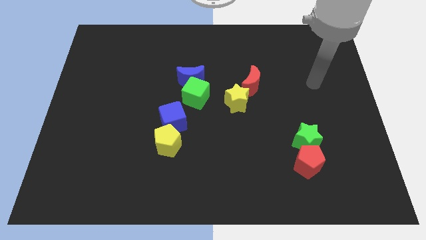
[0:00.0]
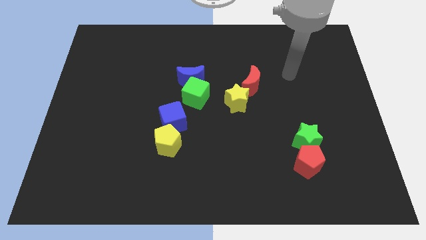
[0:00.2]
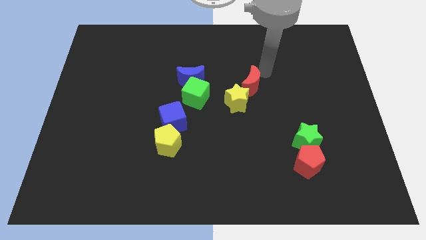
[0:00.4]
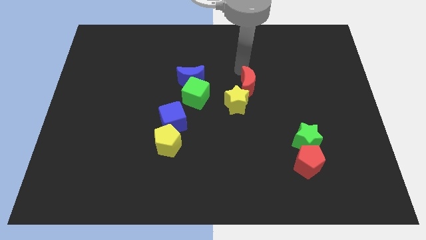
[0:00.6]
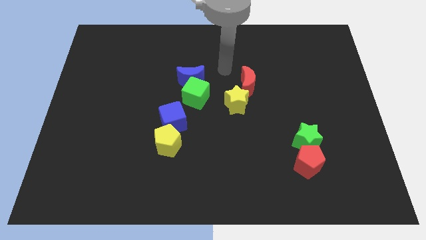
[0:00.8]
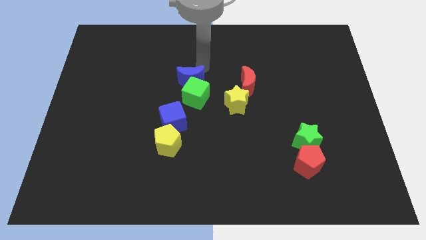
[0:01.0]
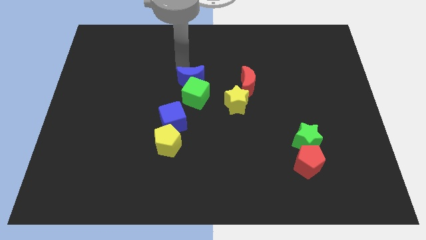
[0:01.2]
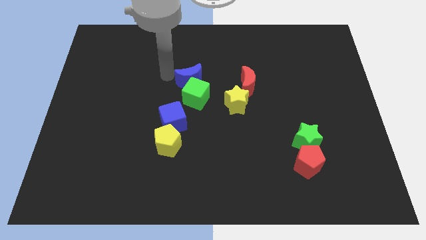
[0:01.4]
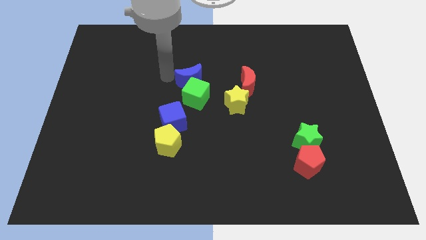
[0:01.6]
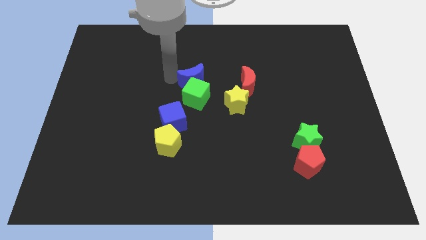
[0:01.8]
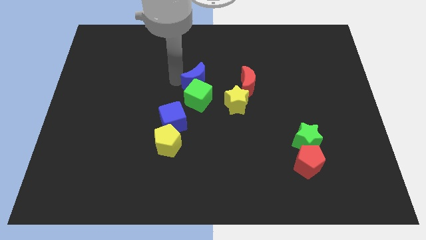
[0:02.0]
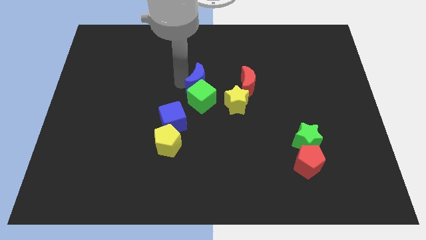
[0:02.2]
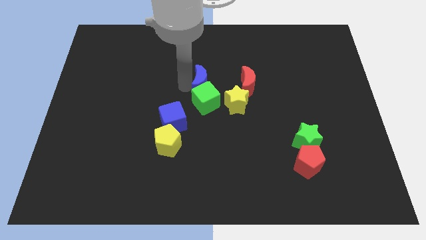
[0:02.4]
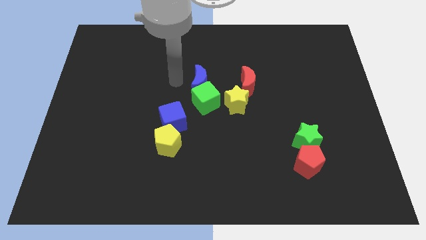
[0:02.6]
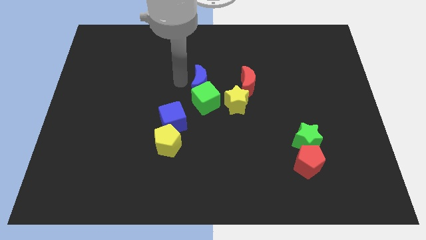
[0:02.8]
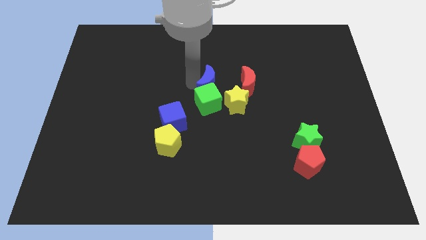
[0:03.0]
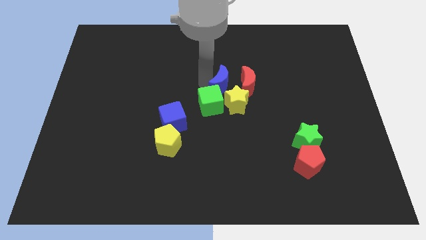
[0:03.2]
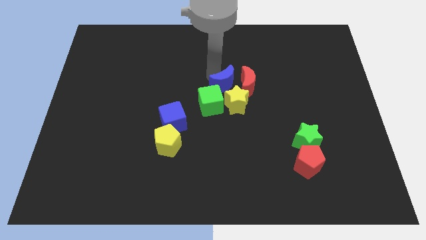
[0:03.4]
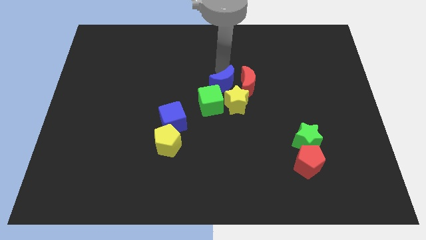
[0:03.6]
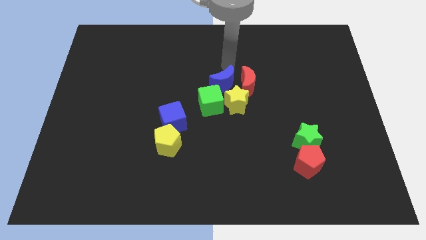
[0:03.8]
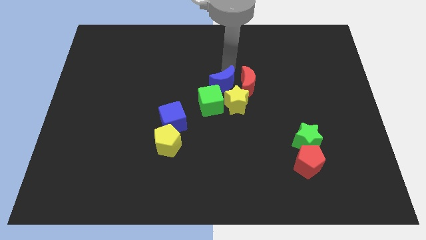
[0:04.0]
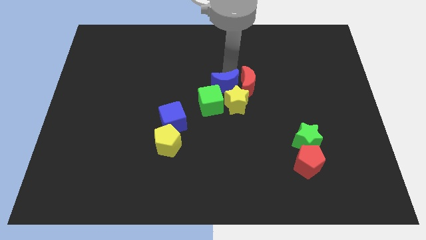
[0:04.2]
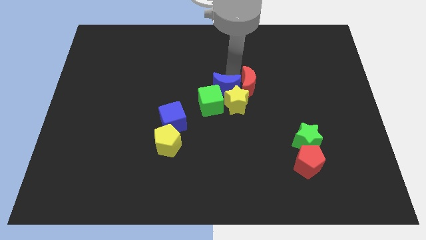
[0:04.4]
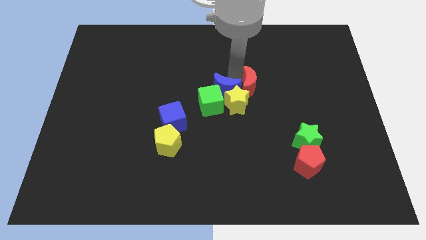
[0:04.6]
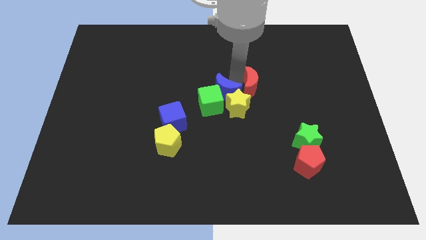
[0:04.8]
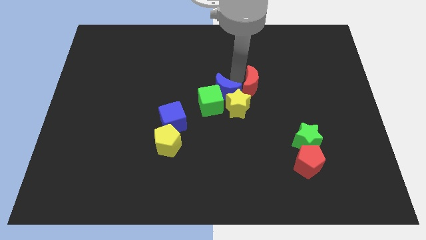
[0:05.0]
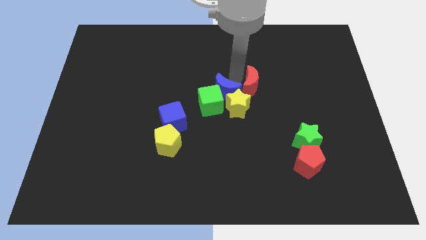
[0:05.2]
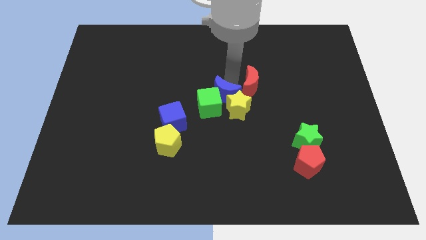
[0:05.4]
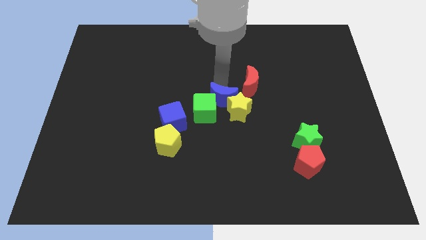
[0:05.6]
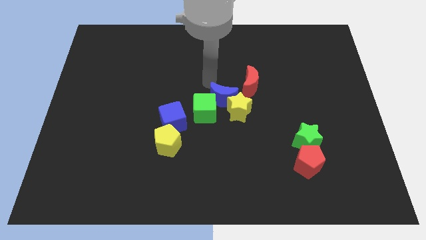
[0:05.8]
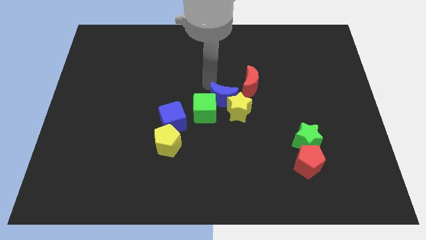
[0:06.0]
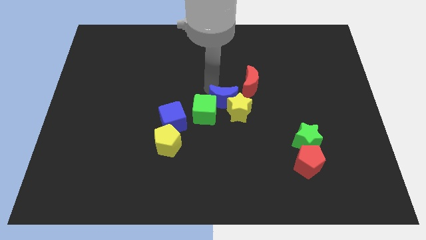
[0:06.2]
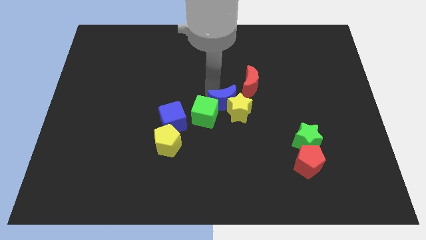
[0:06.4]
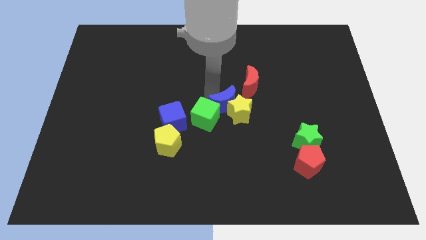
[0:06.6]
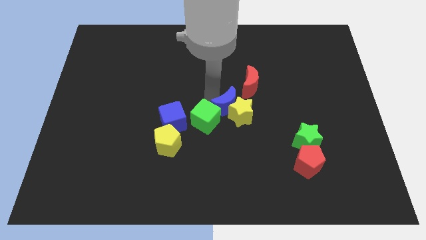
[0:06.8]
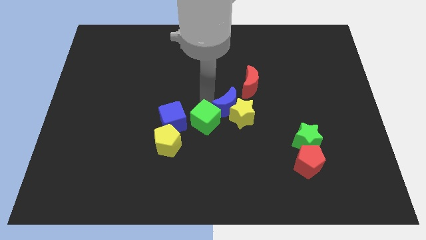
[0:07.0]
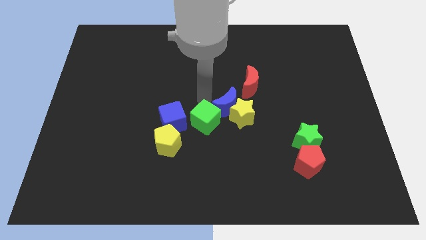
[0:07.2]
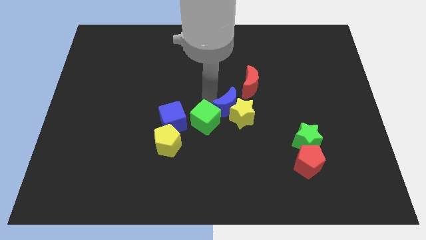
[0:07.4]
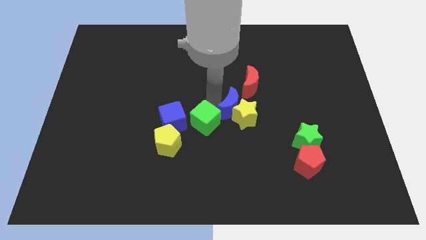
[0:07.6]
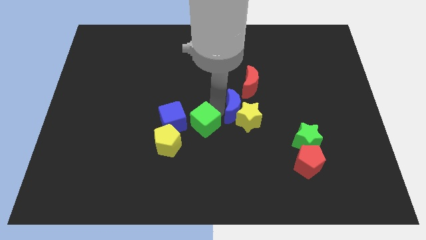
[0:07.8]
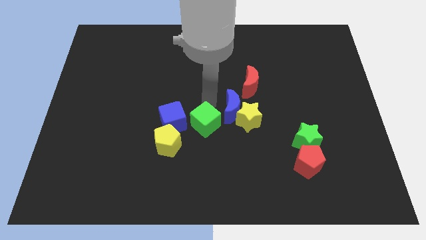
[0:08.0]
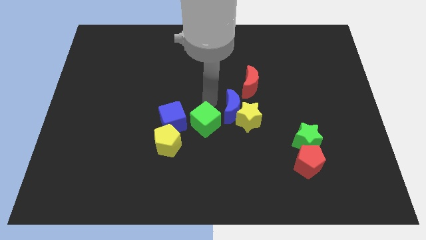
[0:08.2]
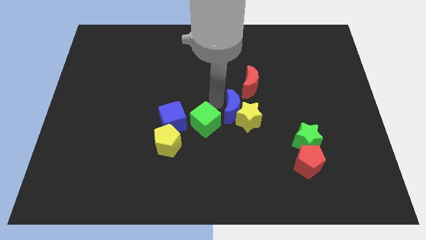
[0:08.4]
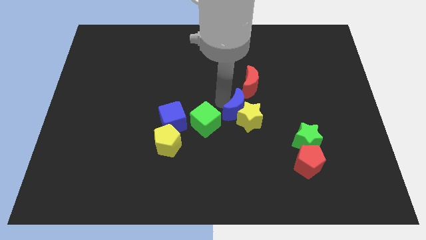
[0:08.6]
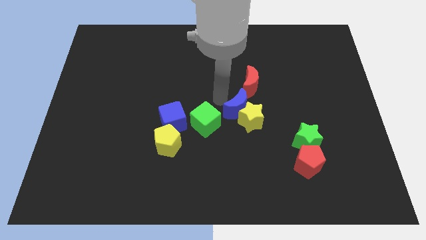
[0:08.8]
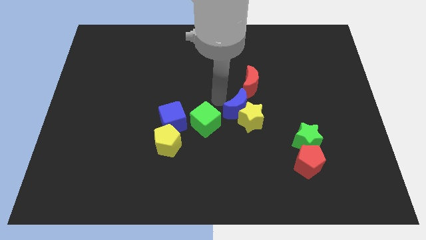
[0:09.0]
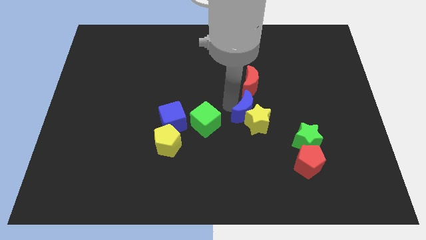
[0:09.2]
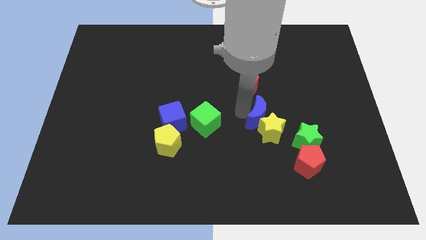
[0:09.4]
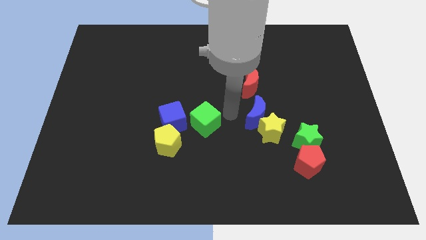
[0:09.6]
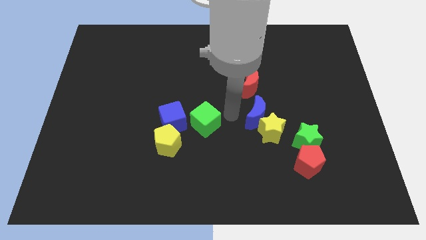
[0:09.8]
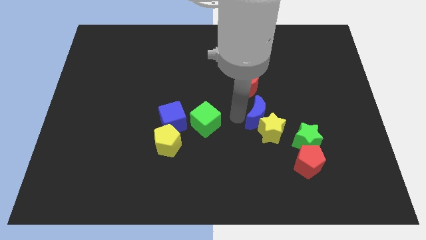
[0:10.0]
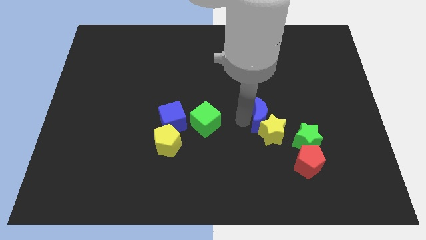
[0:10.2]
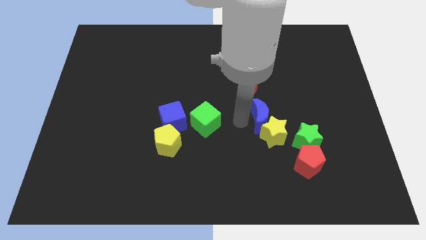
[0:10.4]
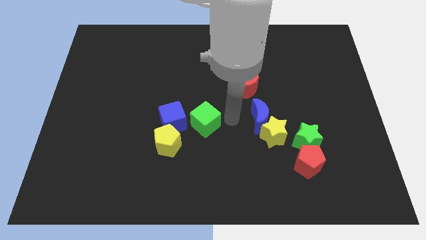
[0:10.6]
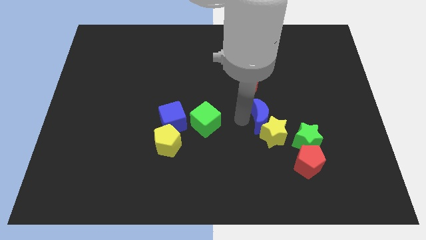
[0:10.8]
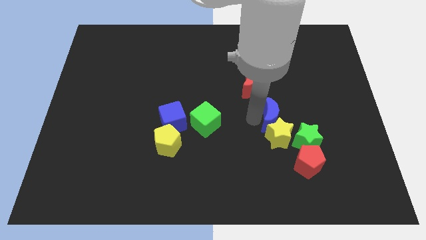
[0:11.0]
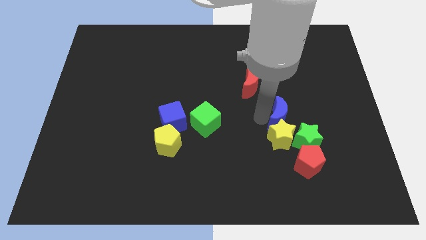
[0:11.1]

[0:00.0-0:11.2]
push the blue moon to the top of the red pentagon

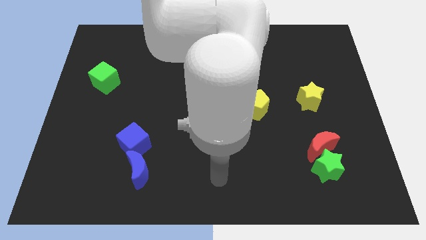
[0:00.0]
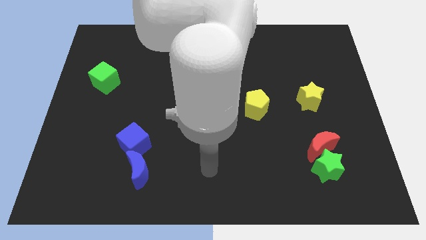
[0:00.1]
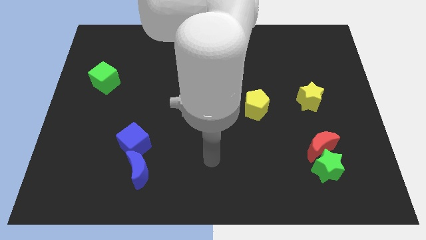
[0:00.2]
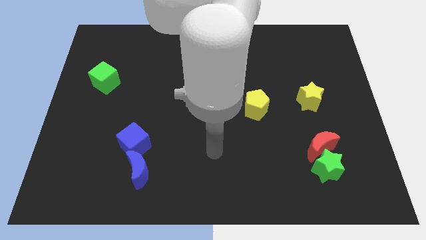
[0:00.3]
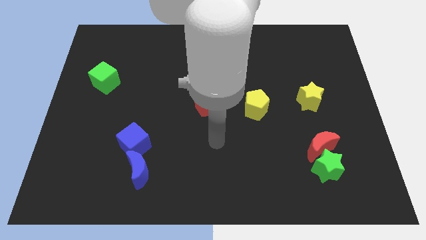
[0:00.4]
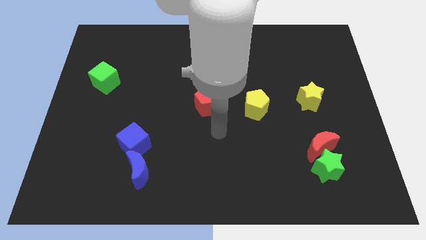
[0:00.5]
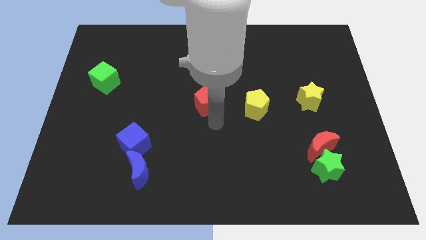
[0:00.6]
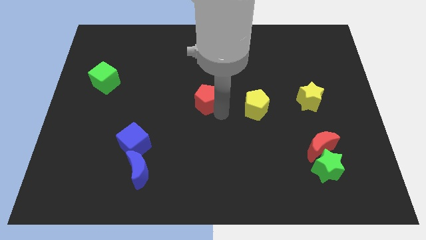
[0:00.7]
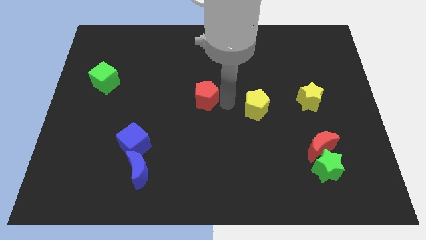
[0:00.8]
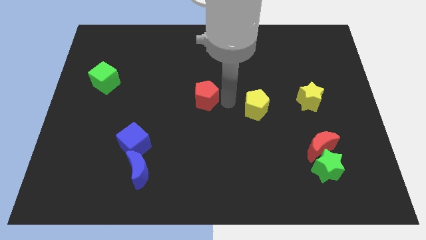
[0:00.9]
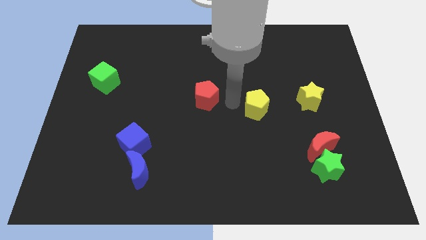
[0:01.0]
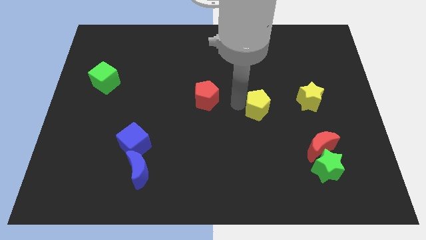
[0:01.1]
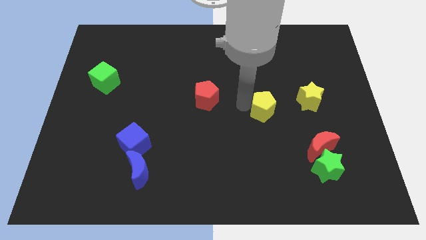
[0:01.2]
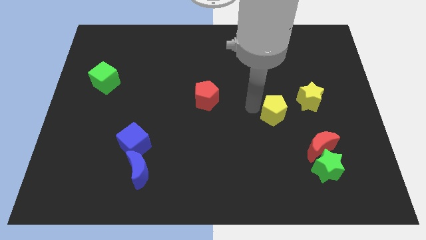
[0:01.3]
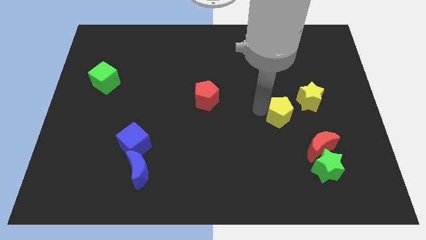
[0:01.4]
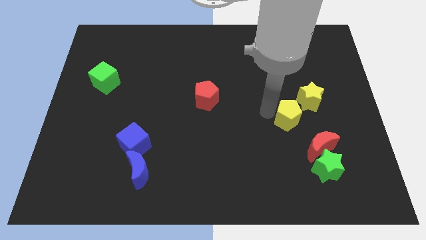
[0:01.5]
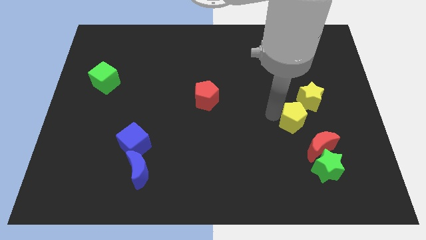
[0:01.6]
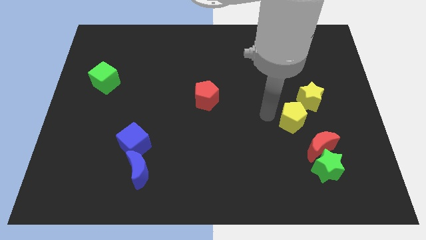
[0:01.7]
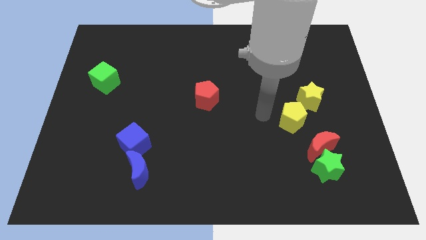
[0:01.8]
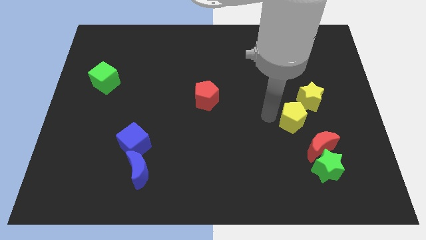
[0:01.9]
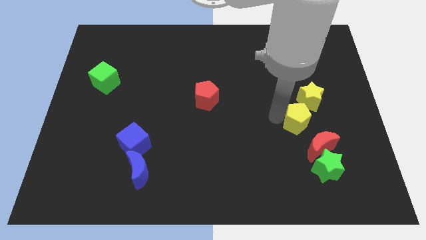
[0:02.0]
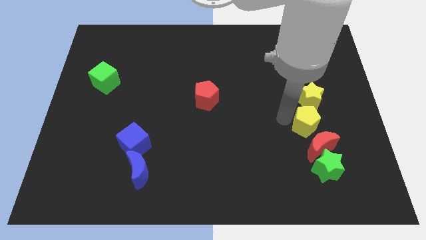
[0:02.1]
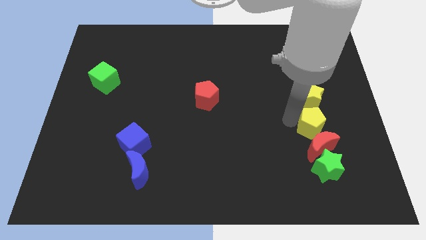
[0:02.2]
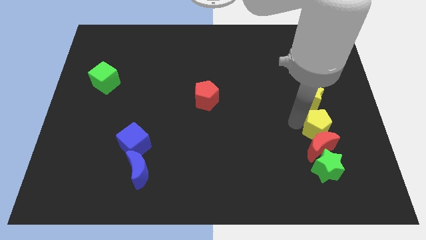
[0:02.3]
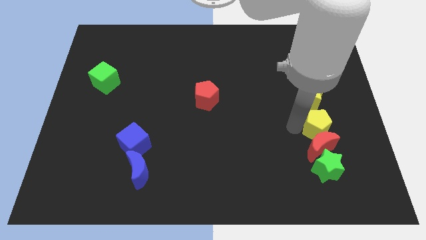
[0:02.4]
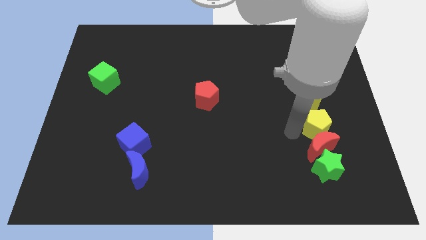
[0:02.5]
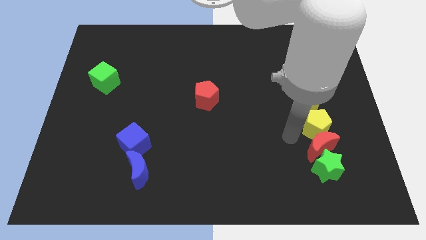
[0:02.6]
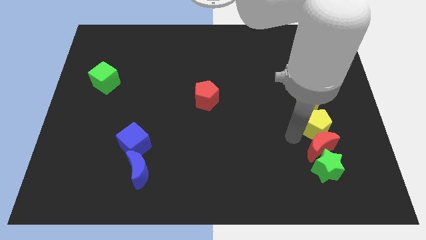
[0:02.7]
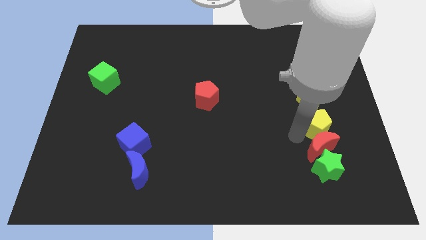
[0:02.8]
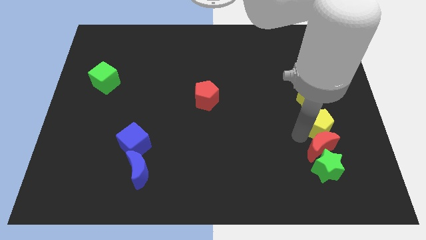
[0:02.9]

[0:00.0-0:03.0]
push the yellow pentagon diagonally down and to the right of the yellow star
